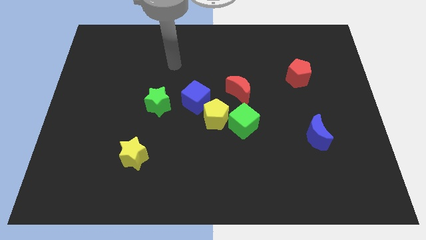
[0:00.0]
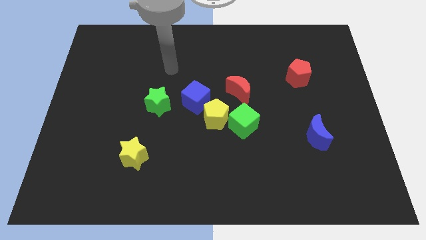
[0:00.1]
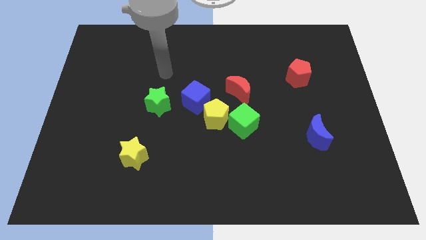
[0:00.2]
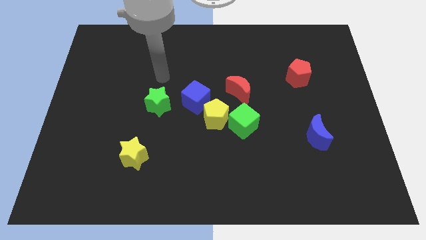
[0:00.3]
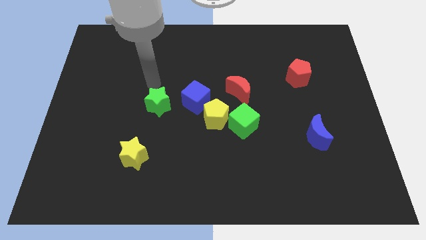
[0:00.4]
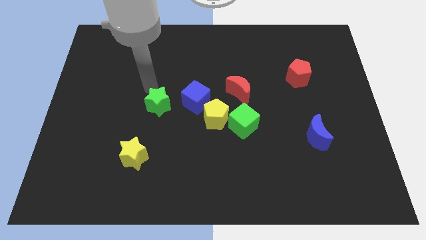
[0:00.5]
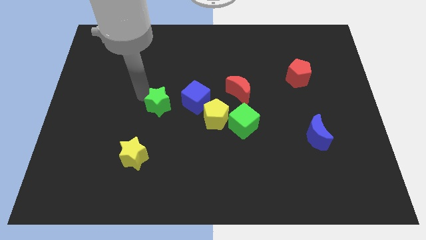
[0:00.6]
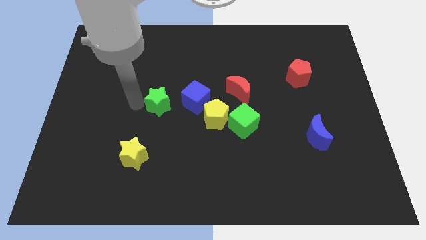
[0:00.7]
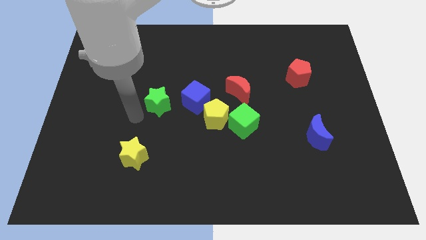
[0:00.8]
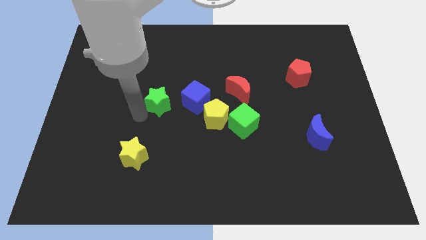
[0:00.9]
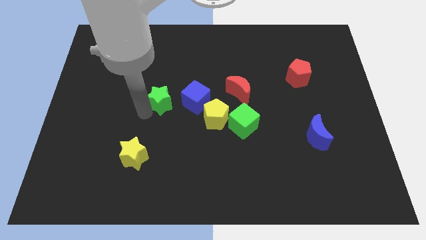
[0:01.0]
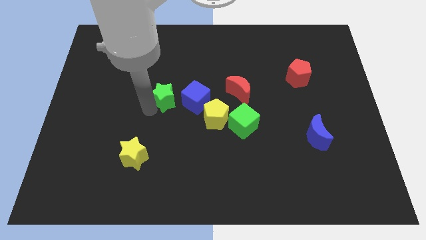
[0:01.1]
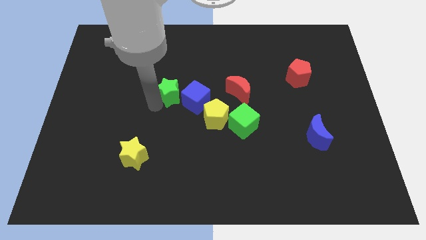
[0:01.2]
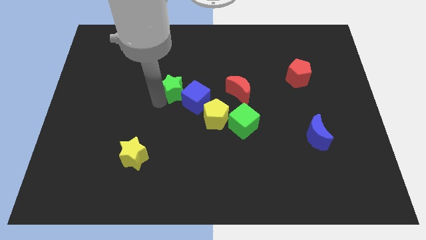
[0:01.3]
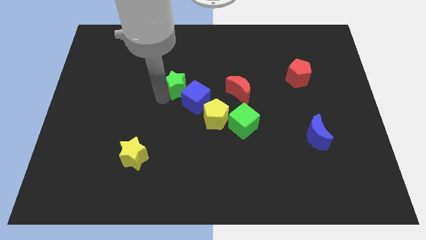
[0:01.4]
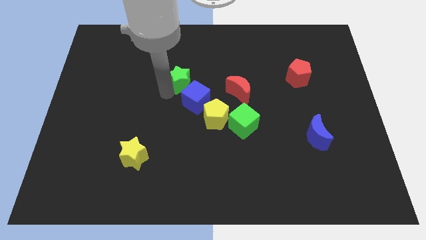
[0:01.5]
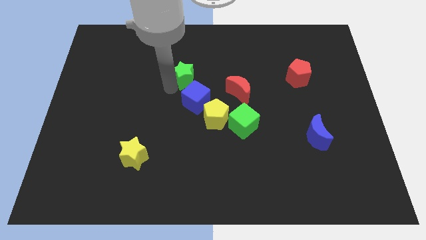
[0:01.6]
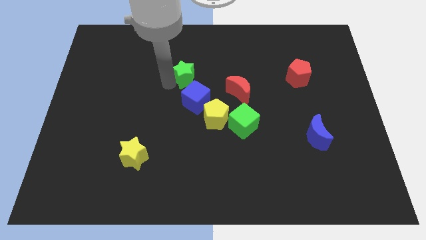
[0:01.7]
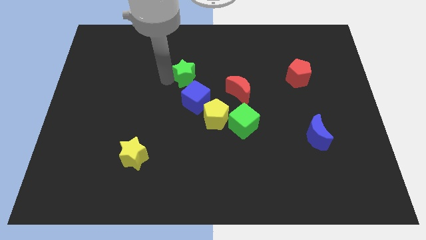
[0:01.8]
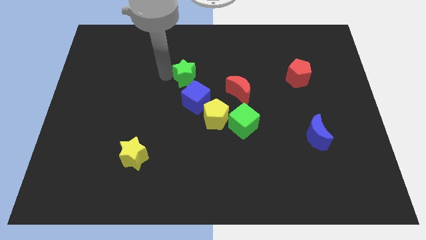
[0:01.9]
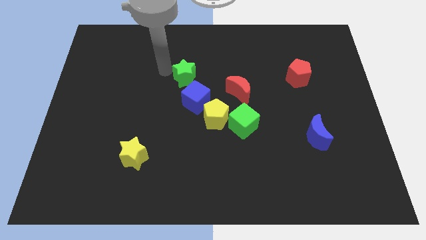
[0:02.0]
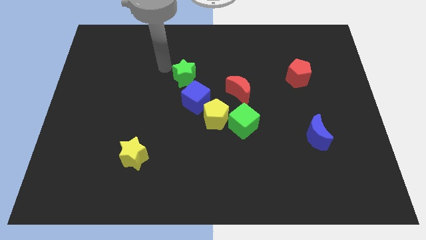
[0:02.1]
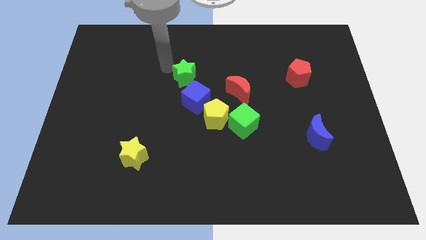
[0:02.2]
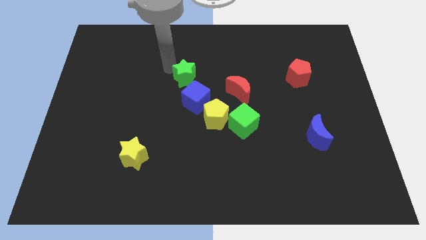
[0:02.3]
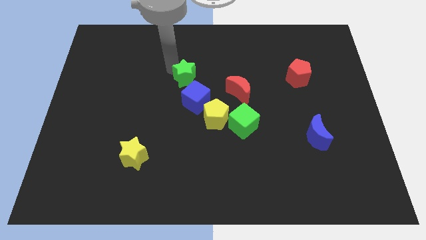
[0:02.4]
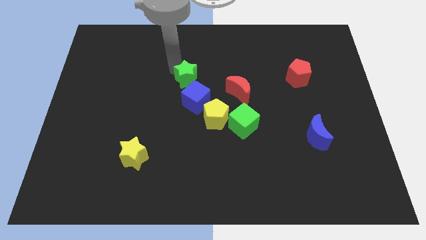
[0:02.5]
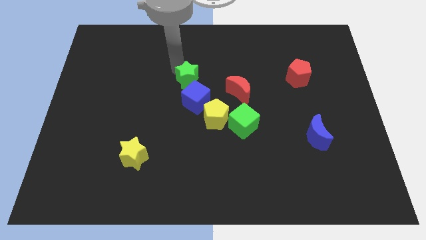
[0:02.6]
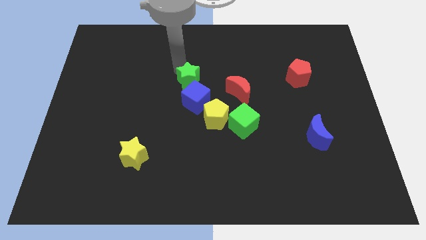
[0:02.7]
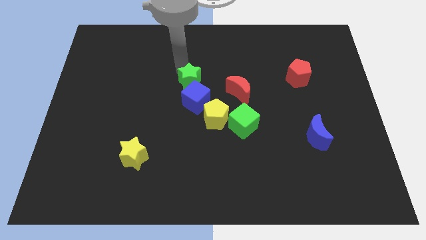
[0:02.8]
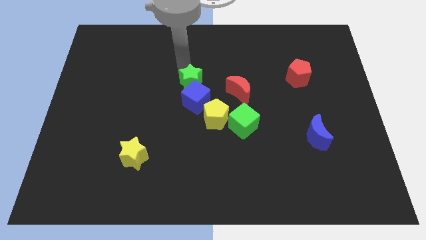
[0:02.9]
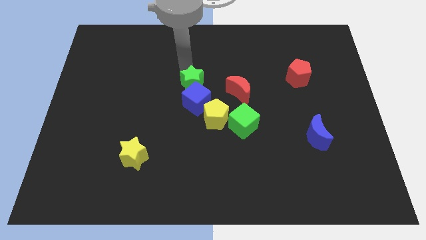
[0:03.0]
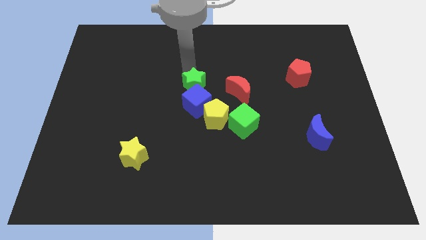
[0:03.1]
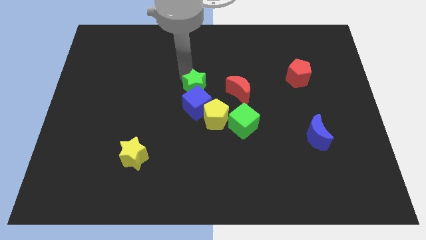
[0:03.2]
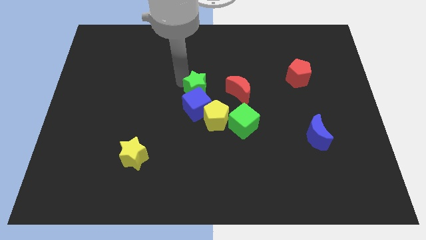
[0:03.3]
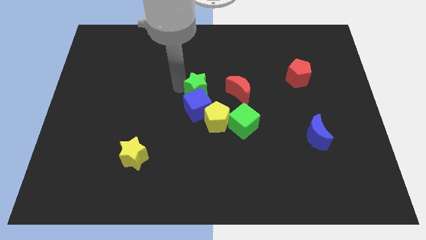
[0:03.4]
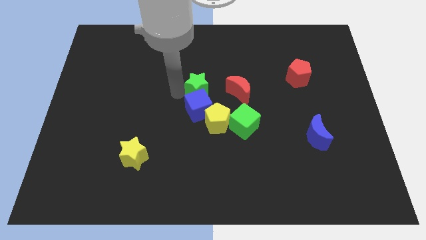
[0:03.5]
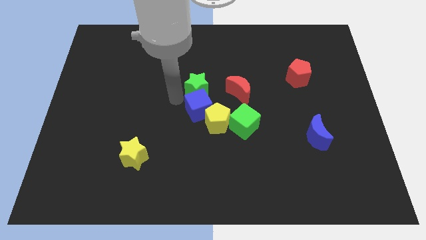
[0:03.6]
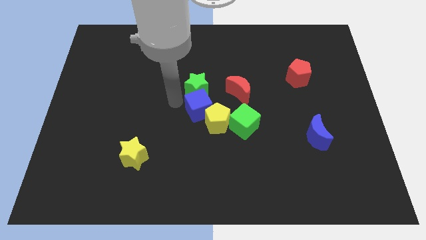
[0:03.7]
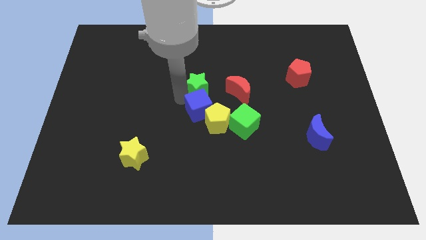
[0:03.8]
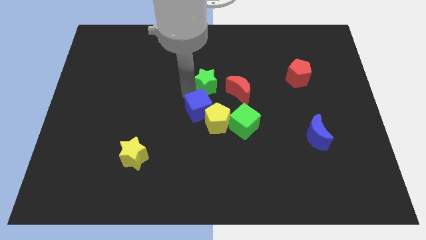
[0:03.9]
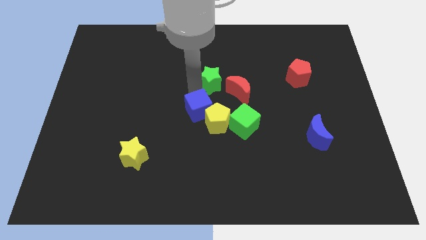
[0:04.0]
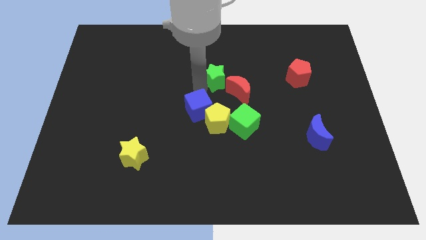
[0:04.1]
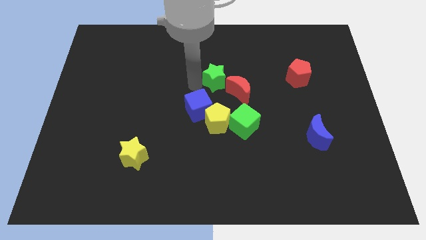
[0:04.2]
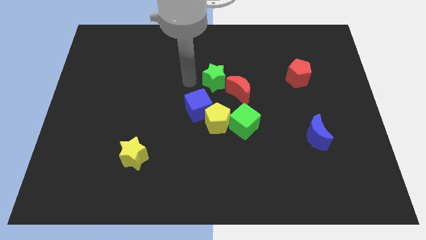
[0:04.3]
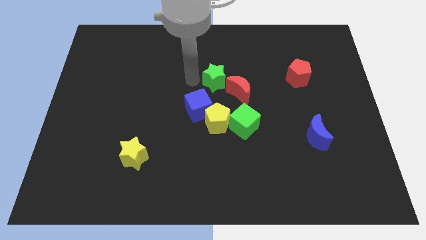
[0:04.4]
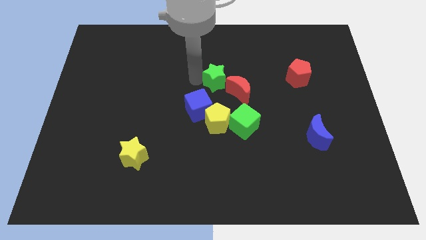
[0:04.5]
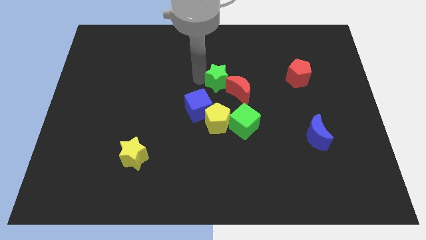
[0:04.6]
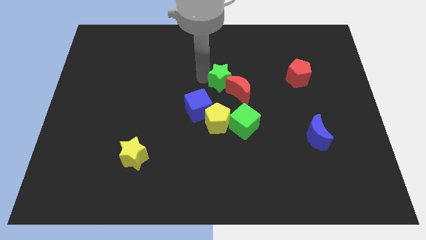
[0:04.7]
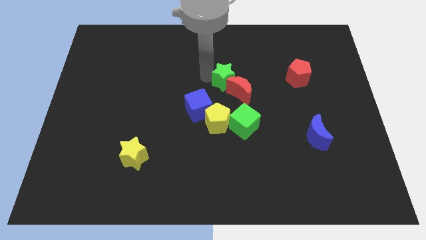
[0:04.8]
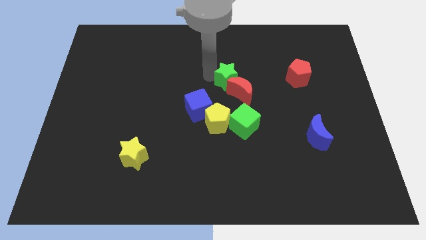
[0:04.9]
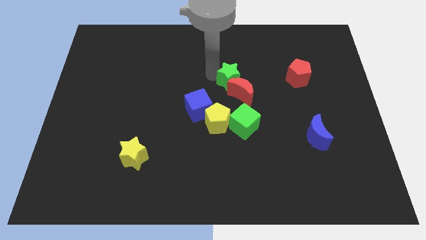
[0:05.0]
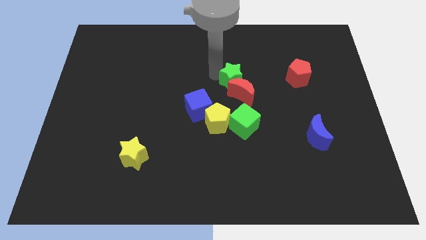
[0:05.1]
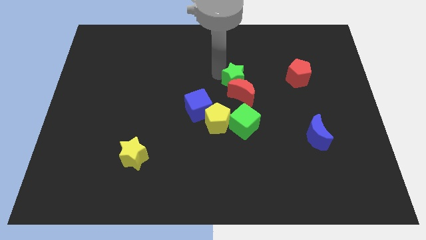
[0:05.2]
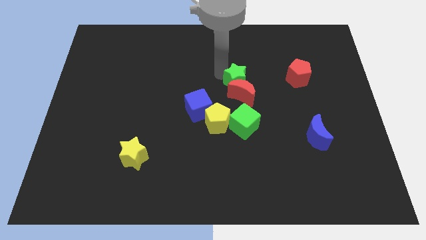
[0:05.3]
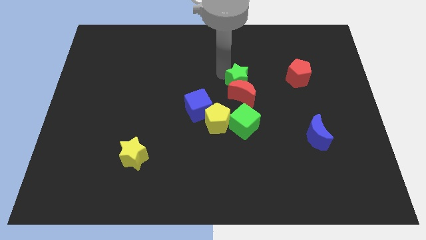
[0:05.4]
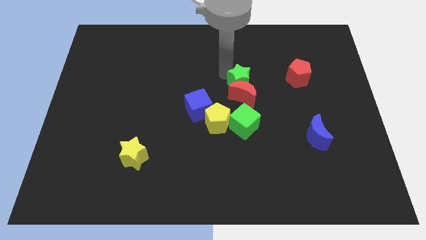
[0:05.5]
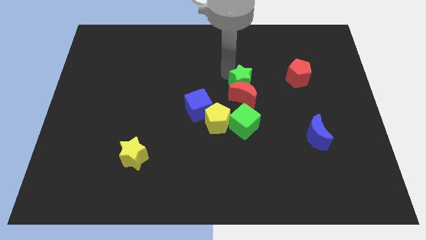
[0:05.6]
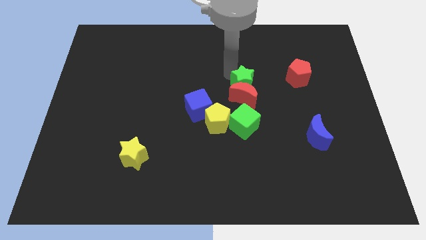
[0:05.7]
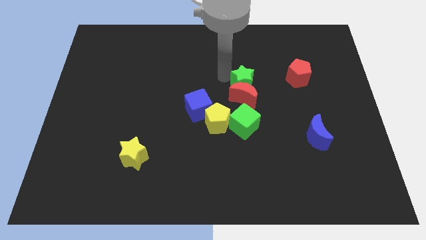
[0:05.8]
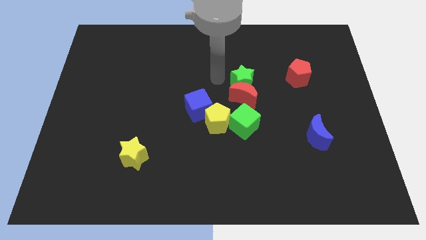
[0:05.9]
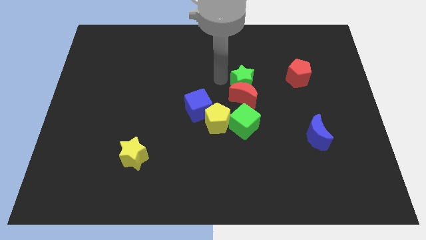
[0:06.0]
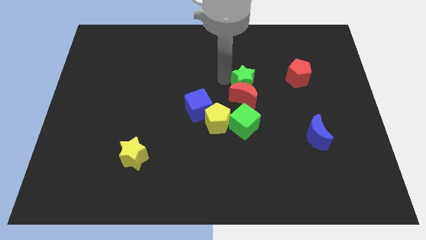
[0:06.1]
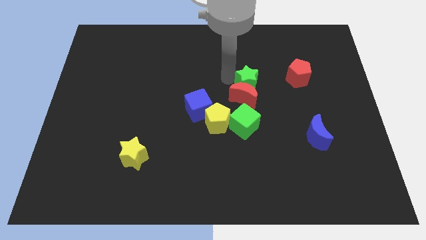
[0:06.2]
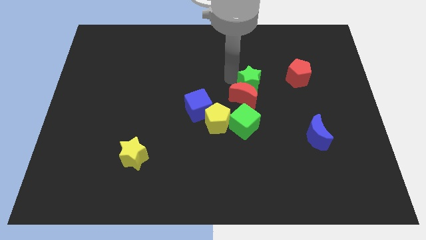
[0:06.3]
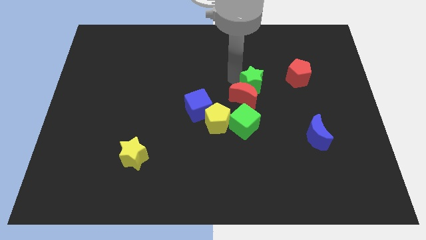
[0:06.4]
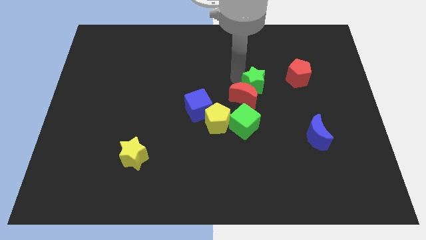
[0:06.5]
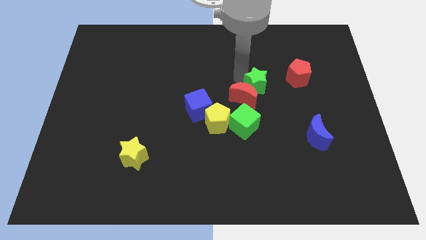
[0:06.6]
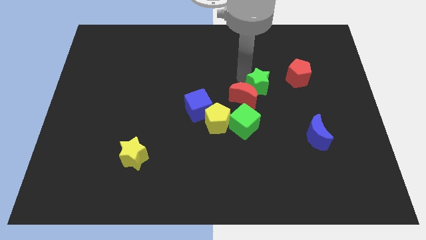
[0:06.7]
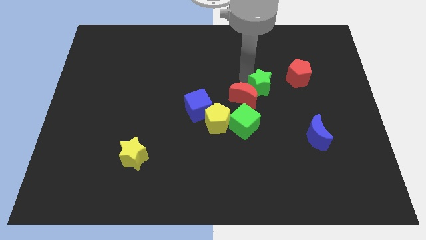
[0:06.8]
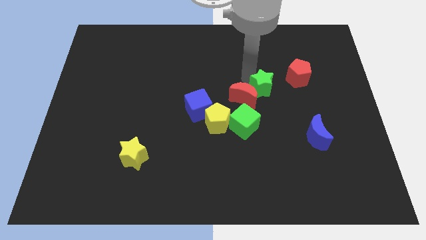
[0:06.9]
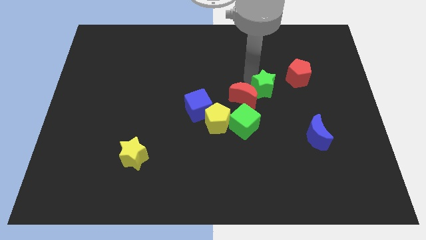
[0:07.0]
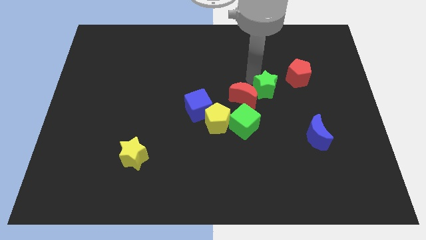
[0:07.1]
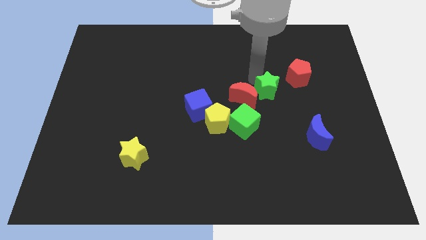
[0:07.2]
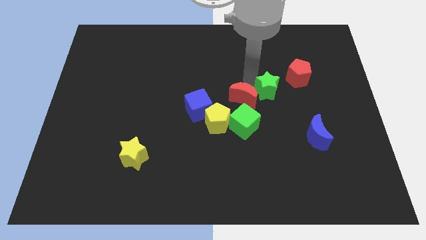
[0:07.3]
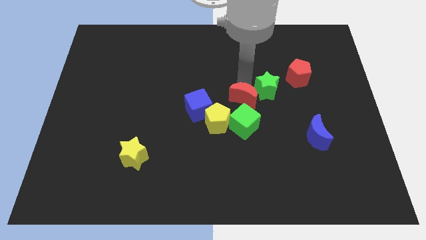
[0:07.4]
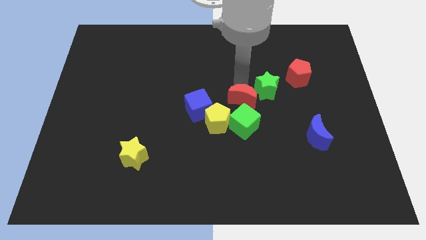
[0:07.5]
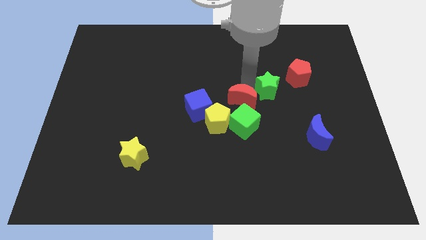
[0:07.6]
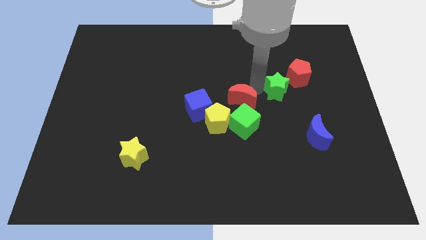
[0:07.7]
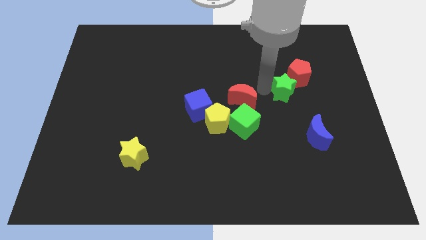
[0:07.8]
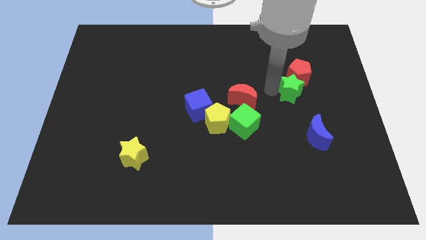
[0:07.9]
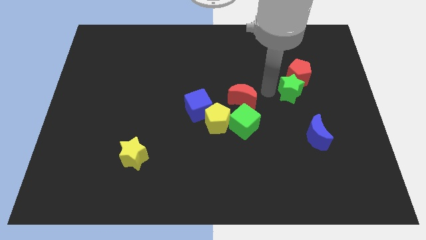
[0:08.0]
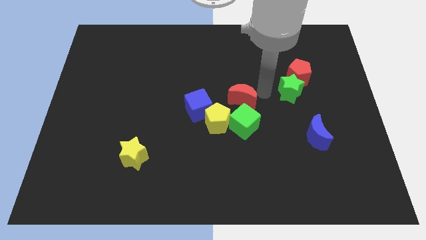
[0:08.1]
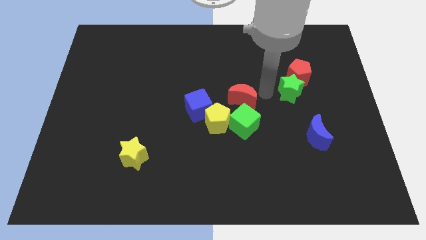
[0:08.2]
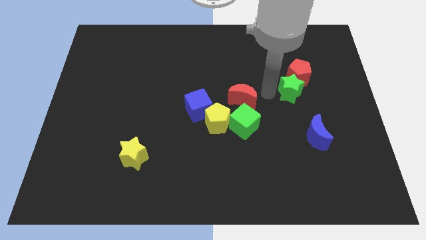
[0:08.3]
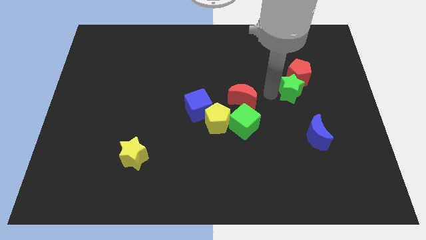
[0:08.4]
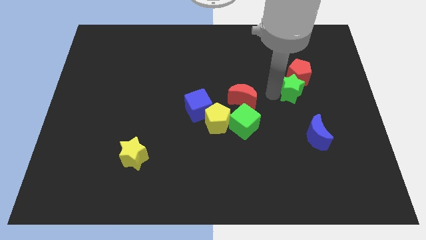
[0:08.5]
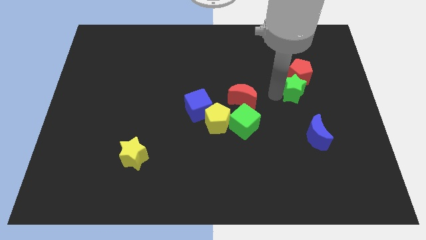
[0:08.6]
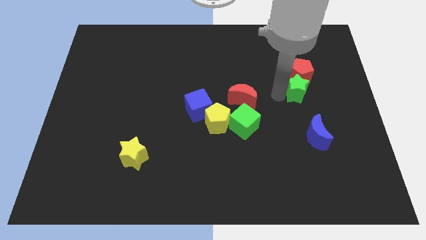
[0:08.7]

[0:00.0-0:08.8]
put the green star diagonally down and to the right of the red pentagon
